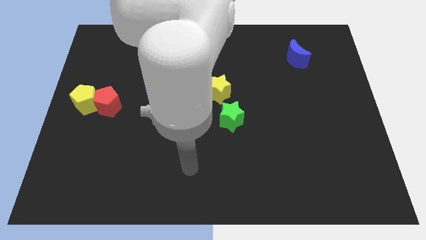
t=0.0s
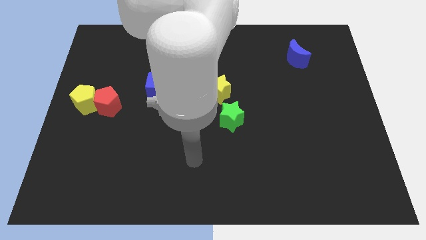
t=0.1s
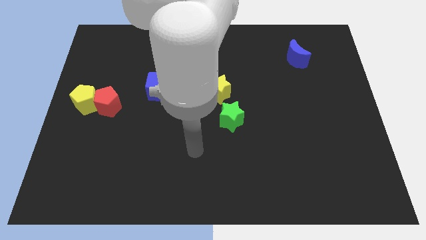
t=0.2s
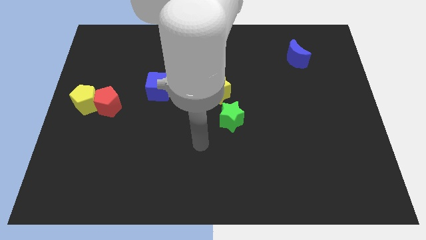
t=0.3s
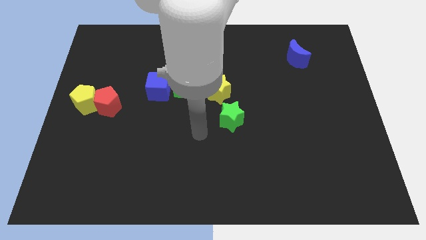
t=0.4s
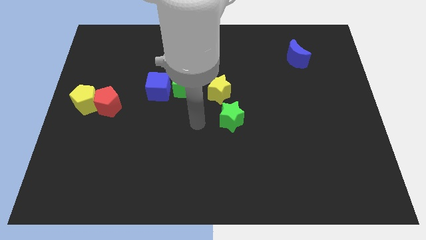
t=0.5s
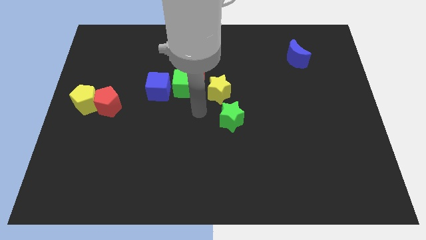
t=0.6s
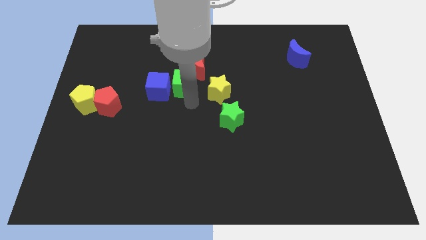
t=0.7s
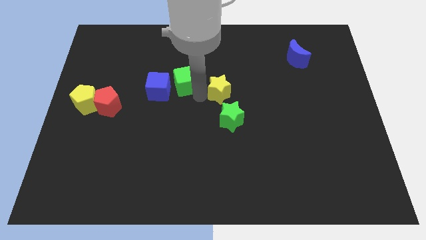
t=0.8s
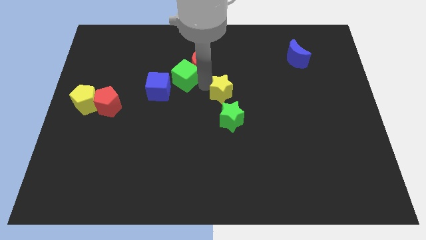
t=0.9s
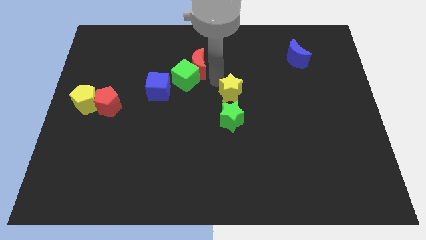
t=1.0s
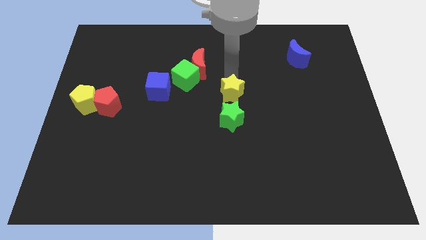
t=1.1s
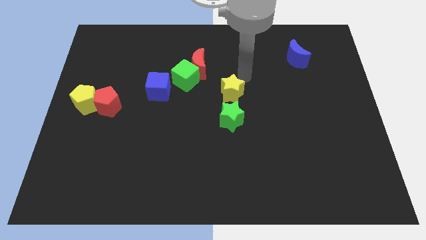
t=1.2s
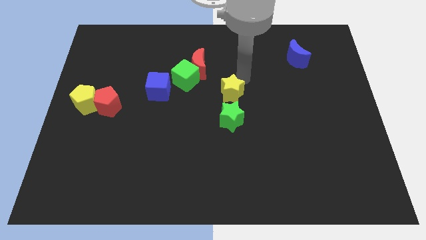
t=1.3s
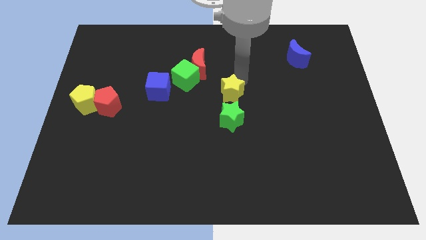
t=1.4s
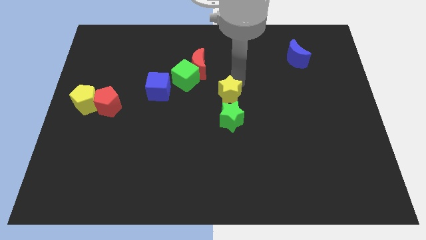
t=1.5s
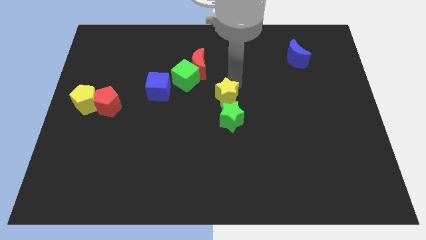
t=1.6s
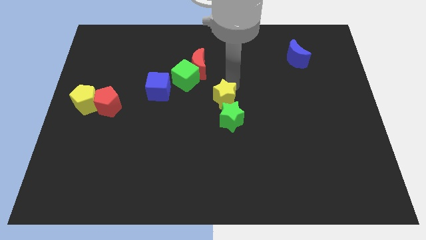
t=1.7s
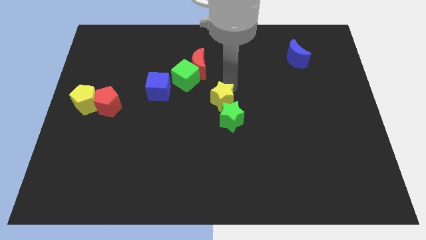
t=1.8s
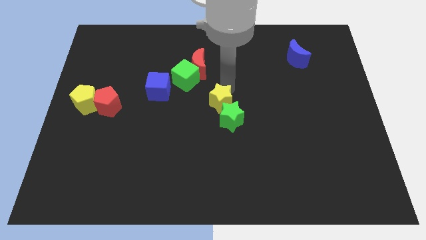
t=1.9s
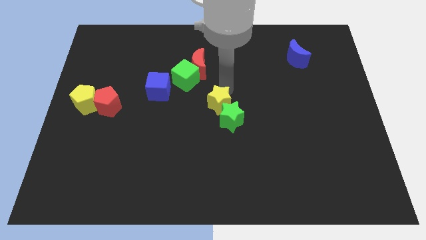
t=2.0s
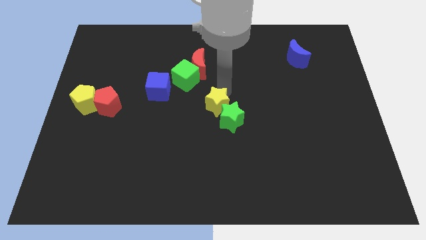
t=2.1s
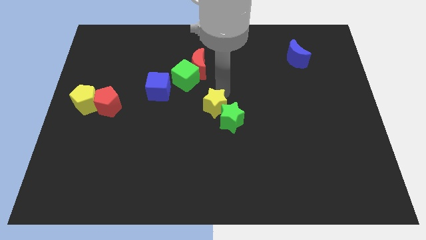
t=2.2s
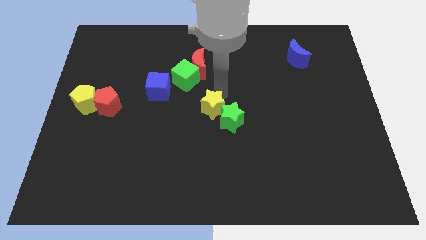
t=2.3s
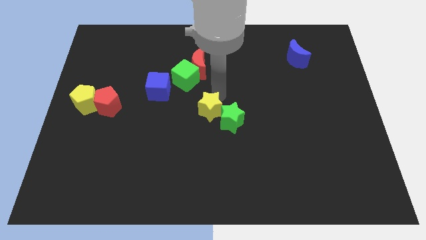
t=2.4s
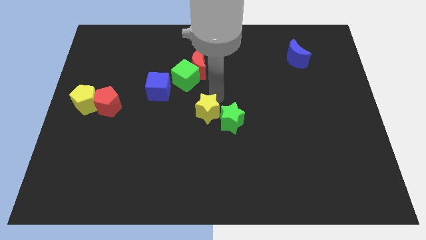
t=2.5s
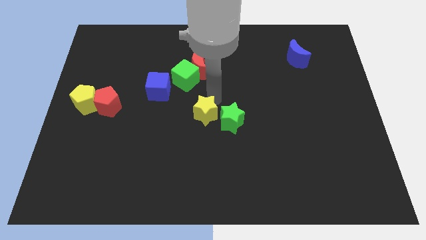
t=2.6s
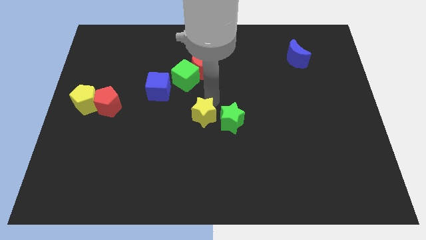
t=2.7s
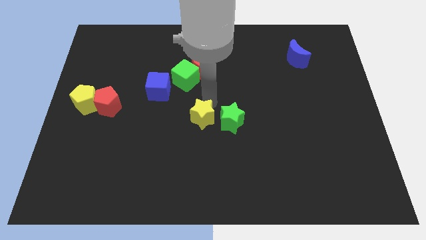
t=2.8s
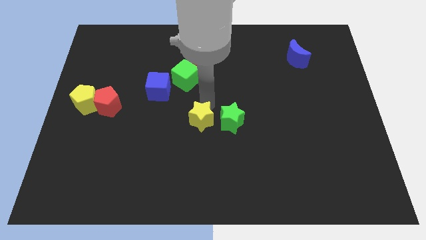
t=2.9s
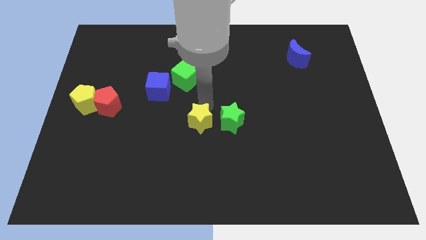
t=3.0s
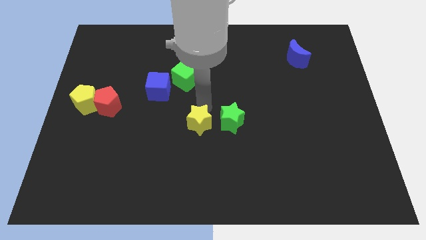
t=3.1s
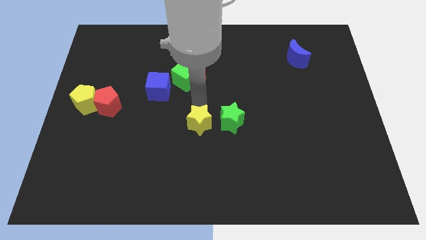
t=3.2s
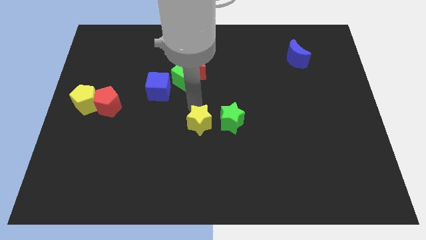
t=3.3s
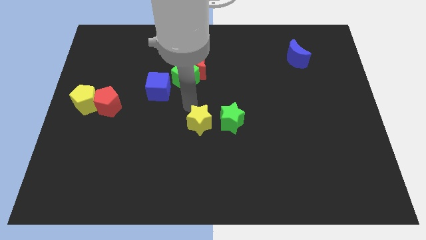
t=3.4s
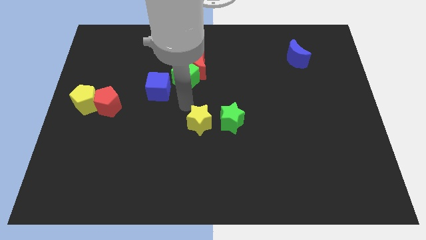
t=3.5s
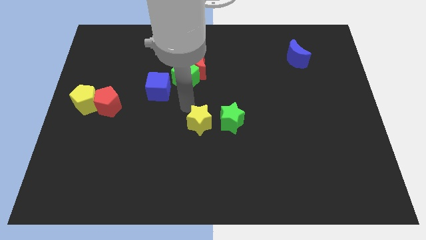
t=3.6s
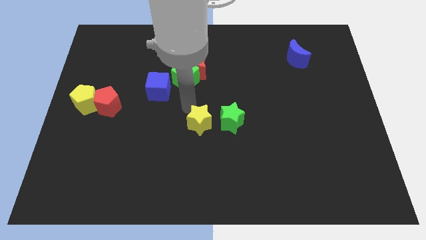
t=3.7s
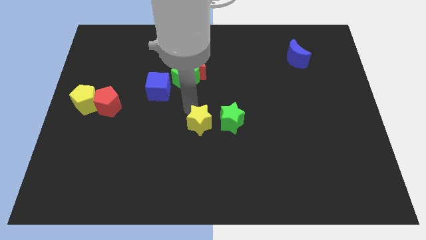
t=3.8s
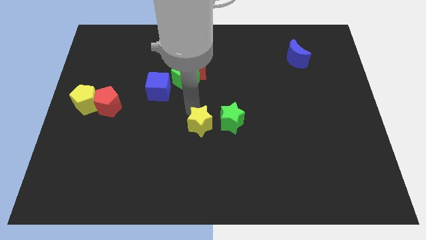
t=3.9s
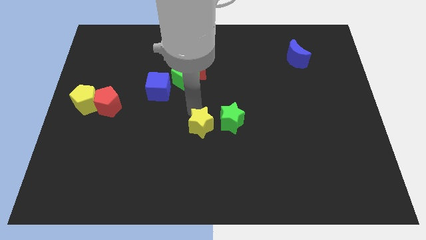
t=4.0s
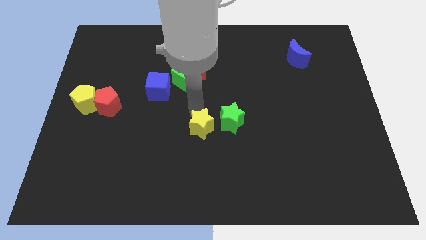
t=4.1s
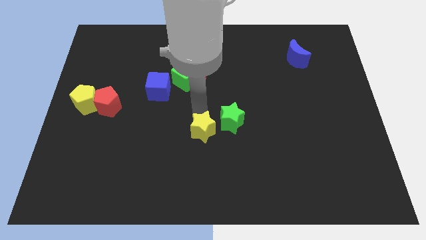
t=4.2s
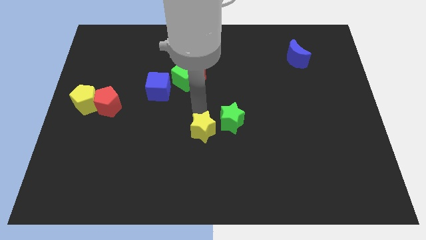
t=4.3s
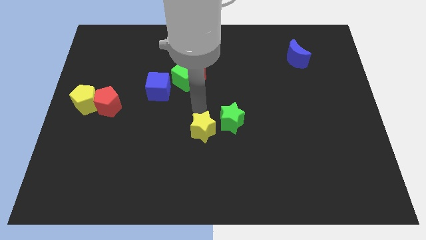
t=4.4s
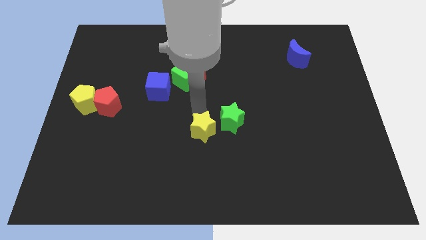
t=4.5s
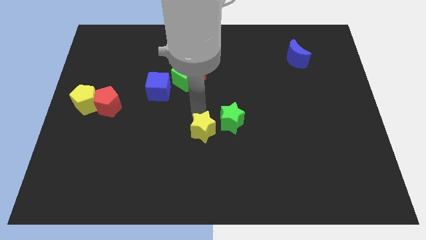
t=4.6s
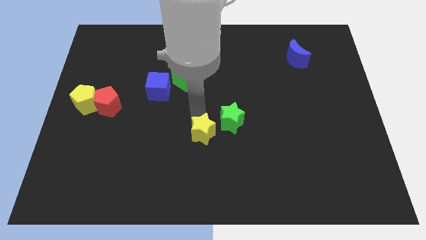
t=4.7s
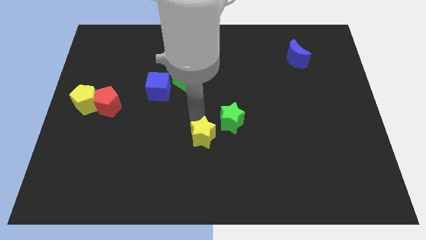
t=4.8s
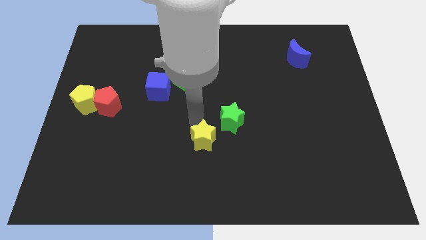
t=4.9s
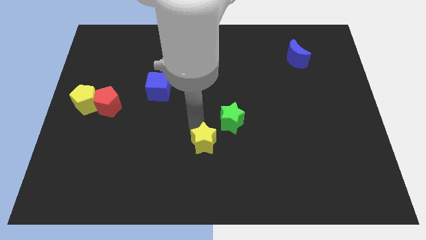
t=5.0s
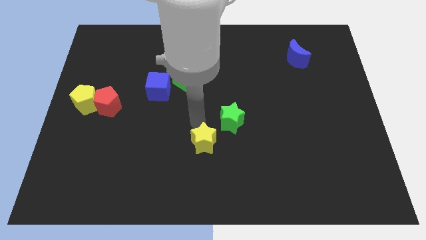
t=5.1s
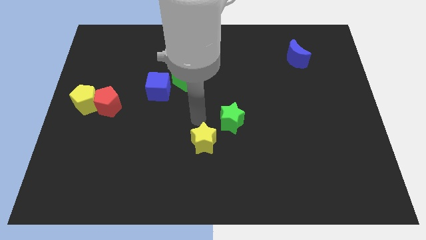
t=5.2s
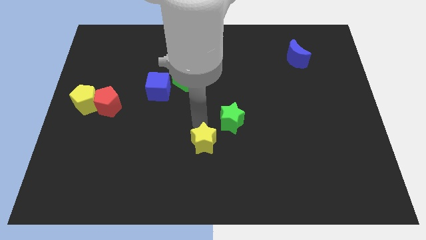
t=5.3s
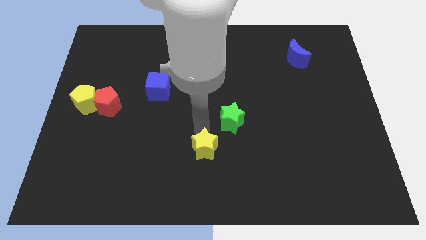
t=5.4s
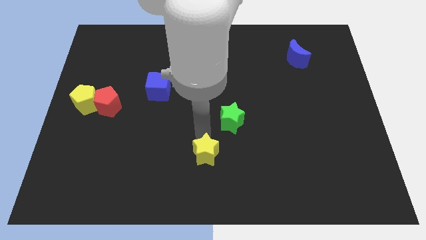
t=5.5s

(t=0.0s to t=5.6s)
push the yellow star to the bottom
